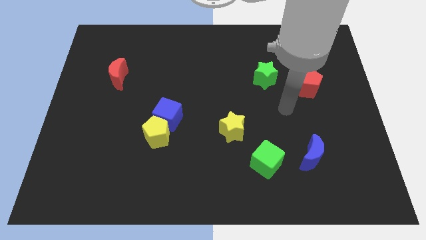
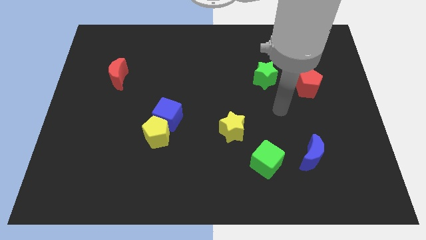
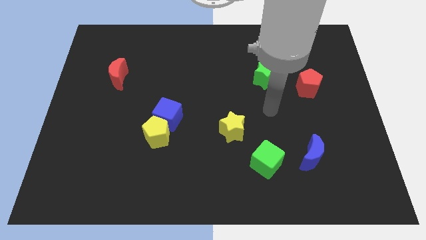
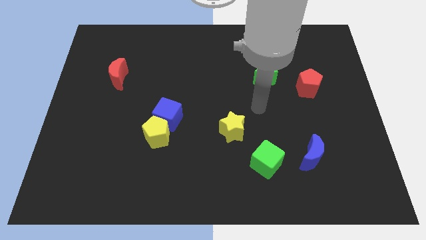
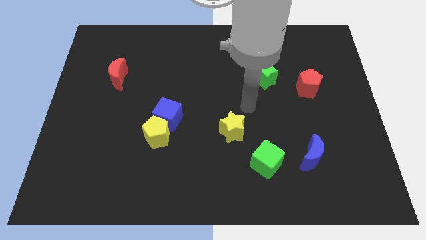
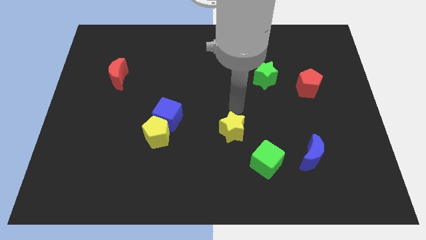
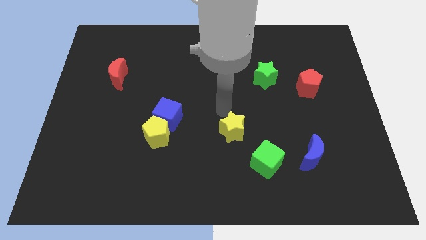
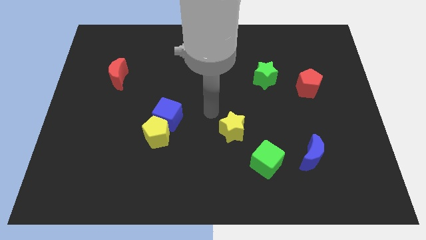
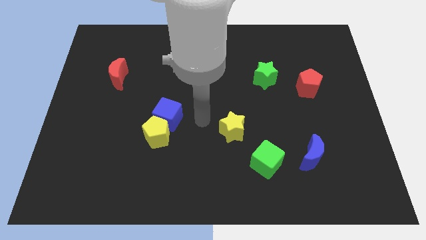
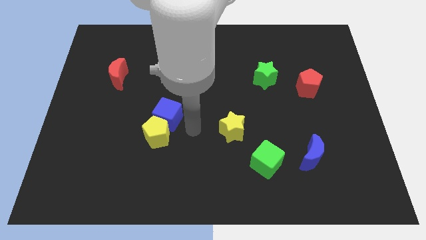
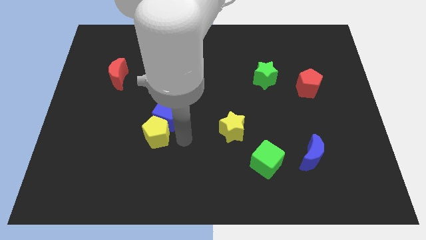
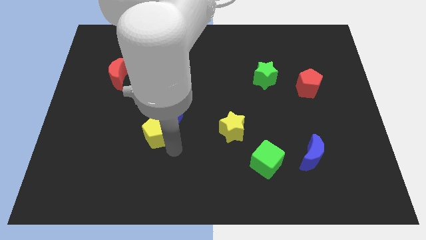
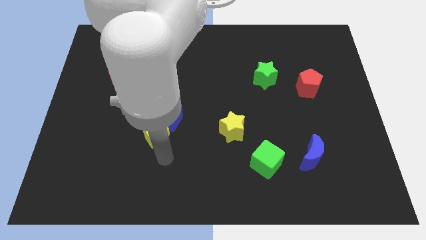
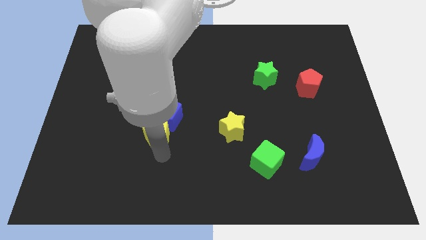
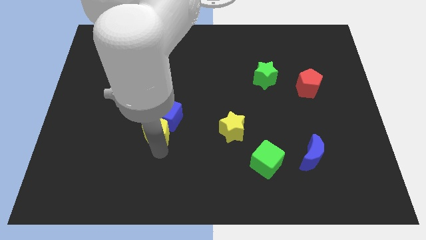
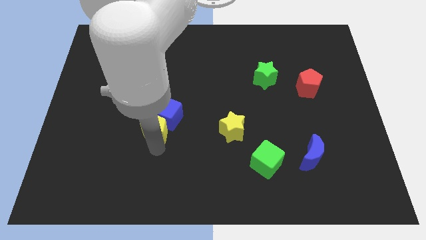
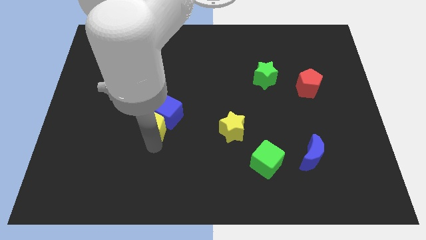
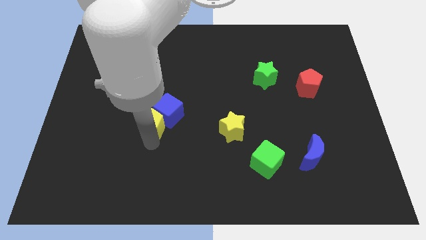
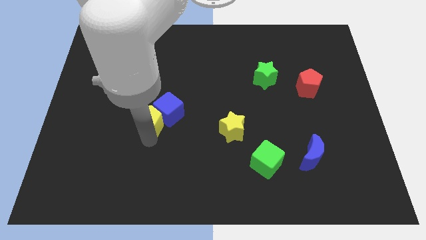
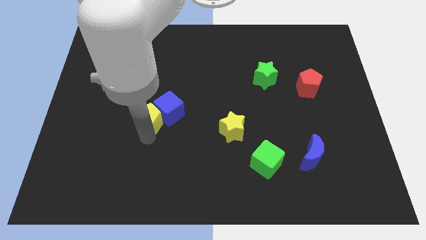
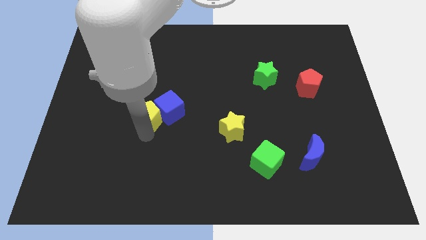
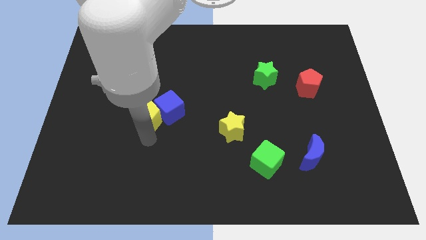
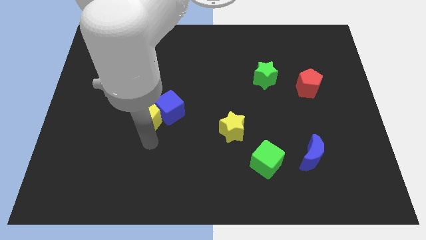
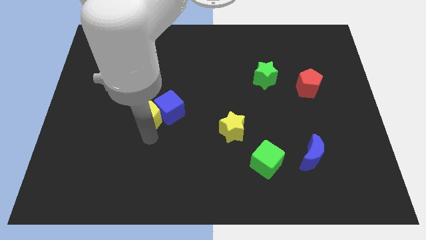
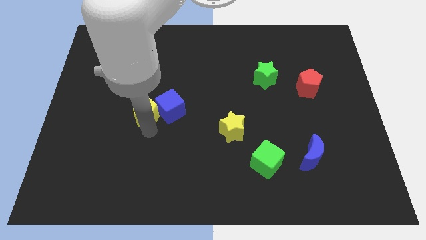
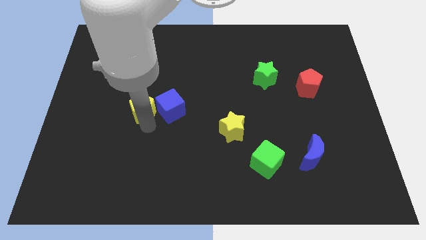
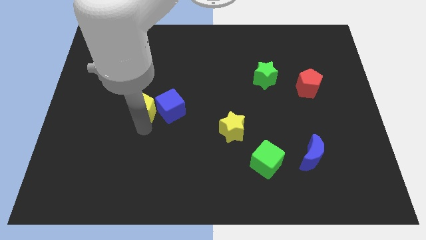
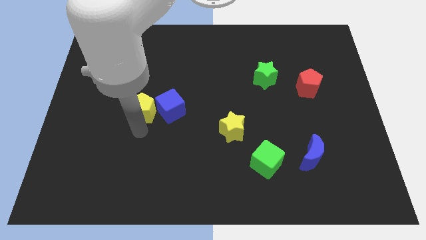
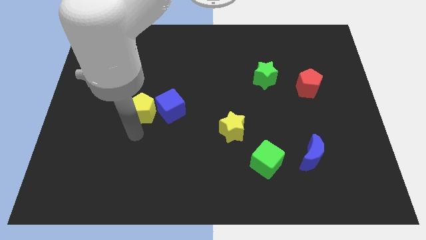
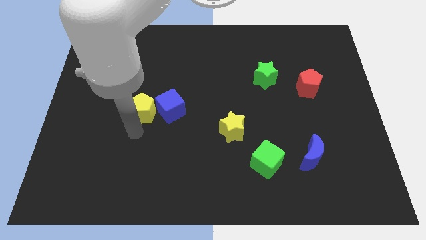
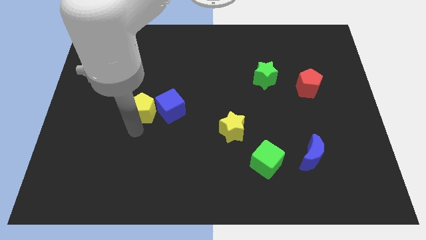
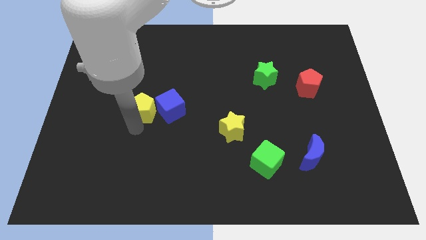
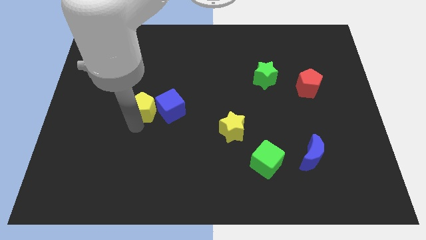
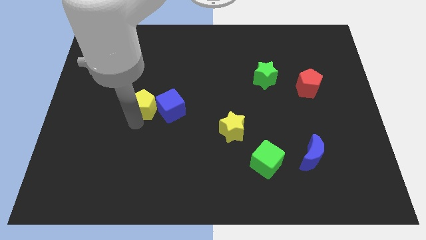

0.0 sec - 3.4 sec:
push the yellow pentagon a little up

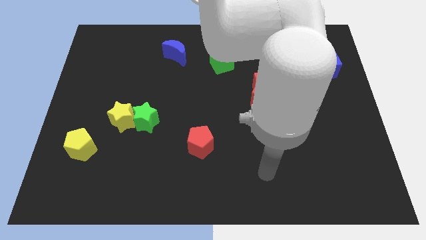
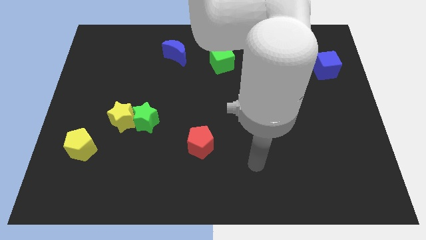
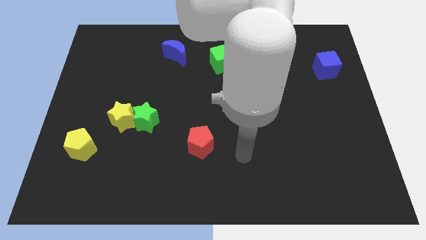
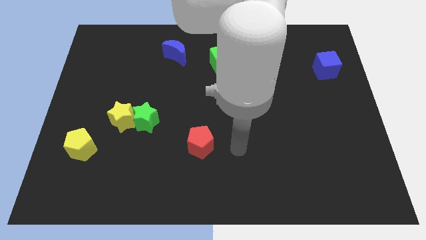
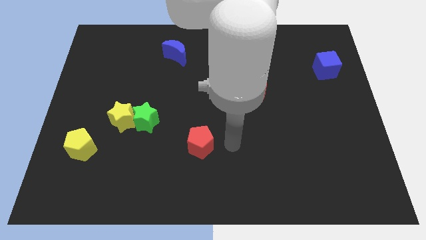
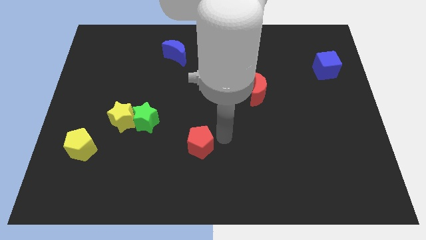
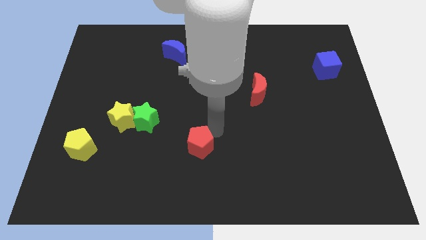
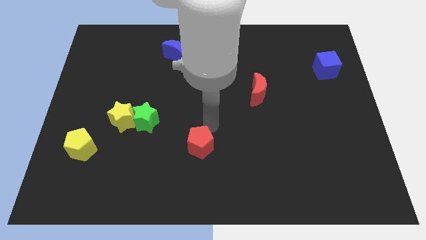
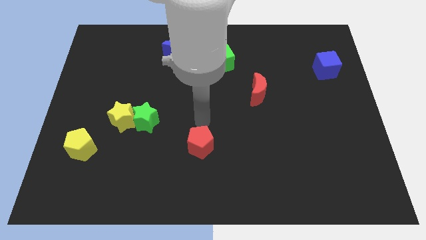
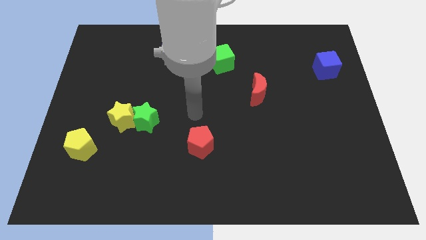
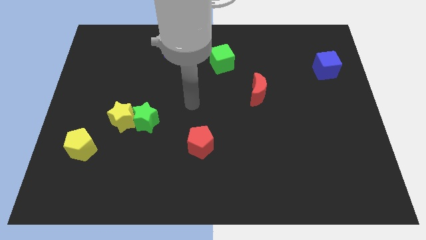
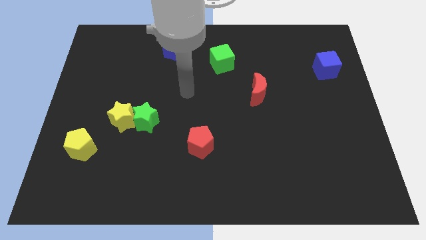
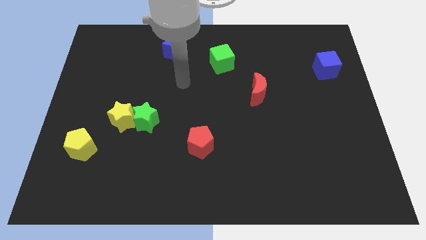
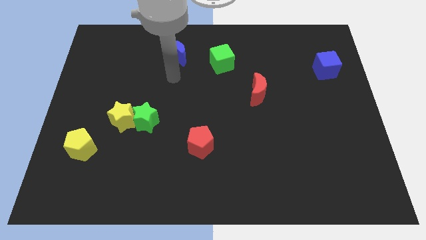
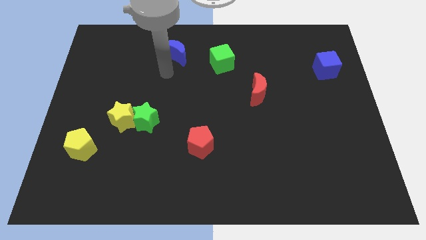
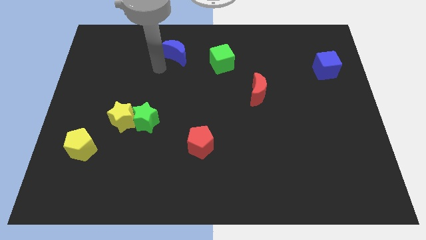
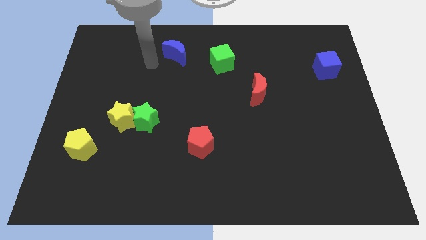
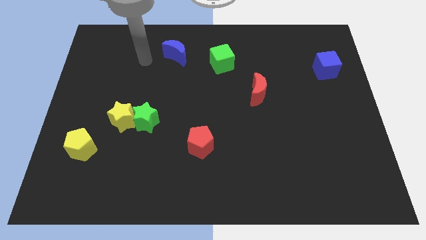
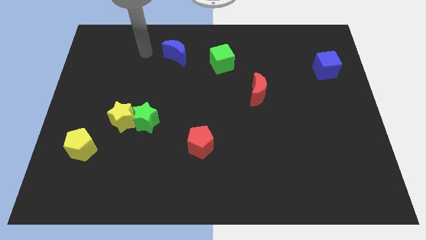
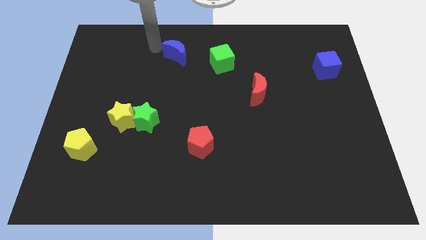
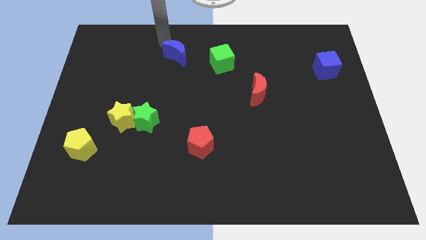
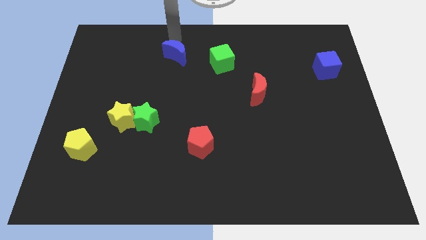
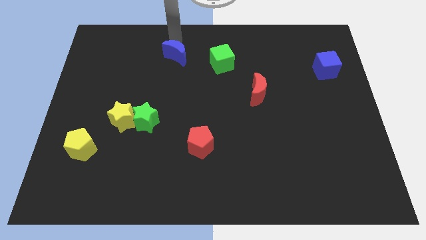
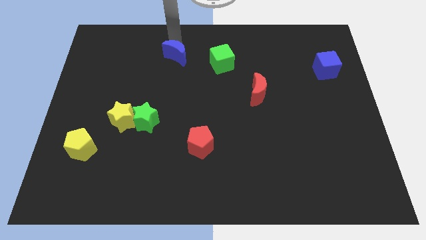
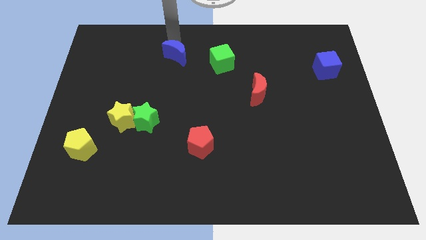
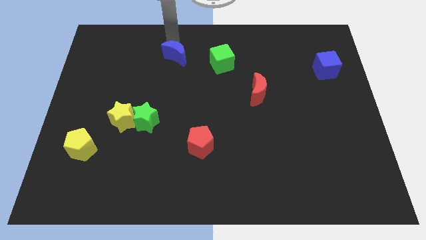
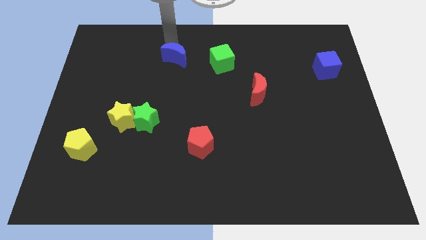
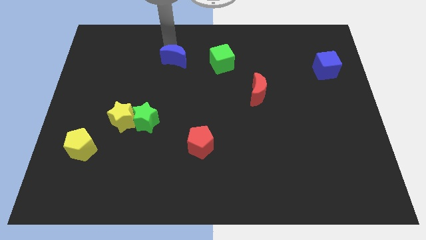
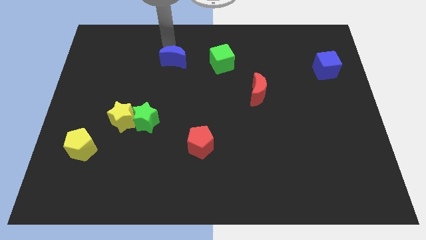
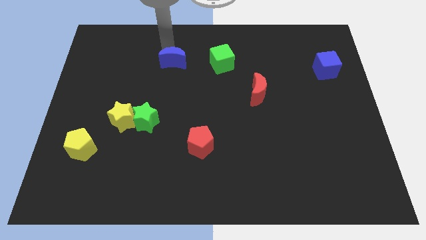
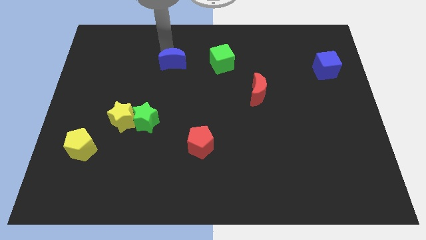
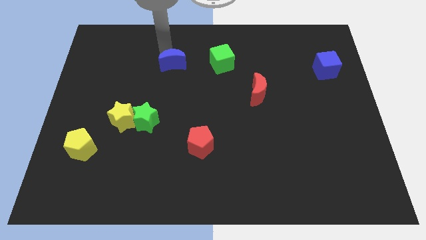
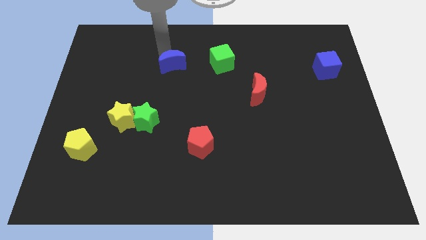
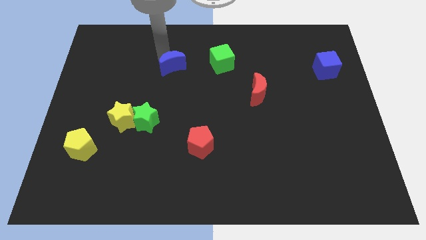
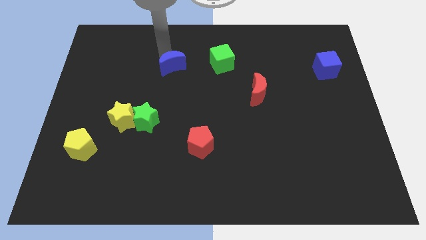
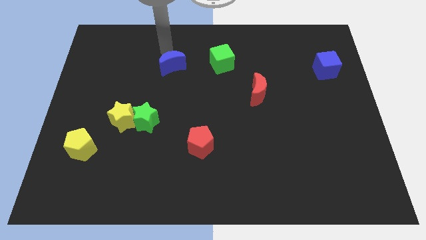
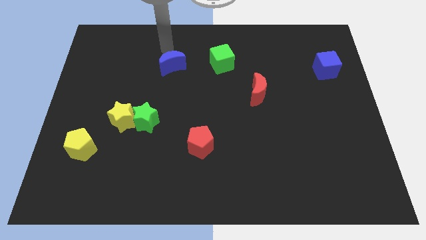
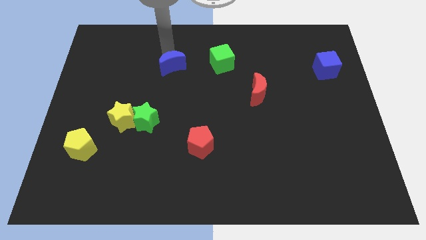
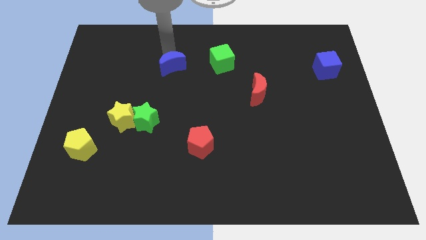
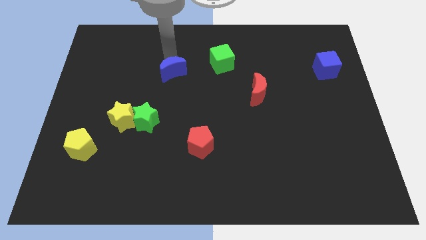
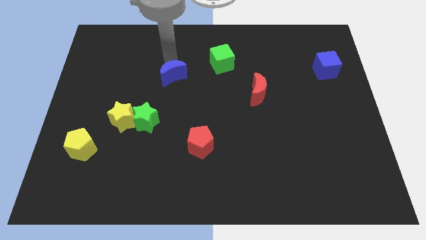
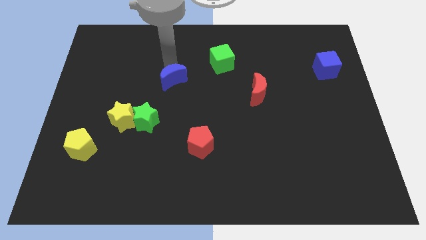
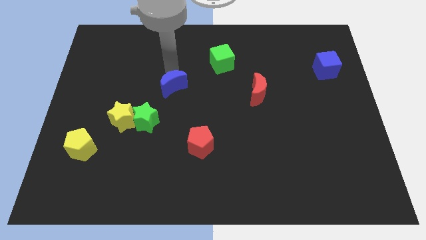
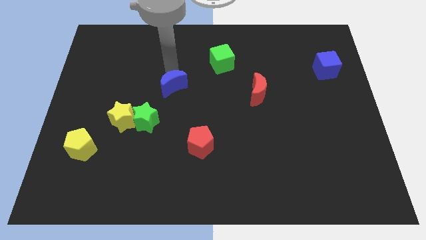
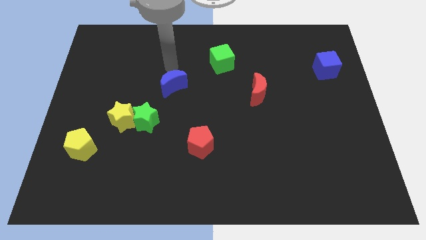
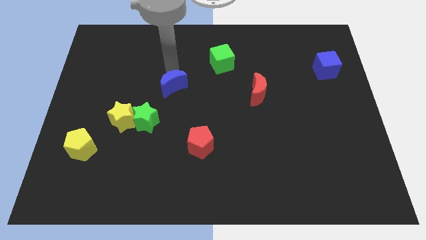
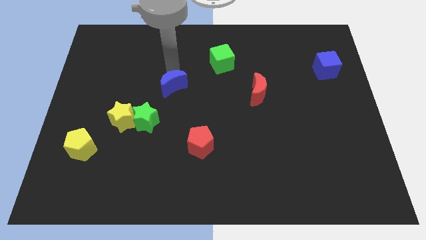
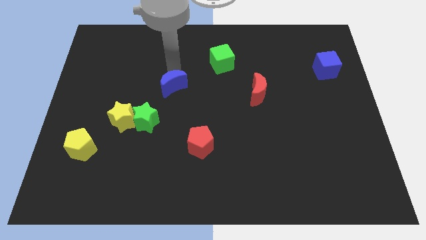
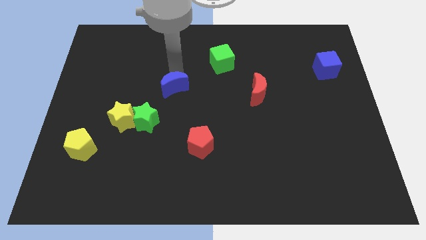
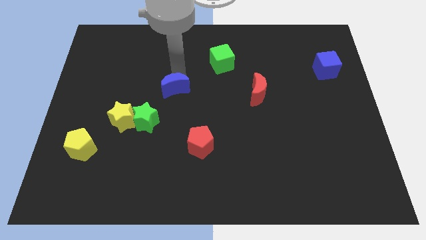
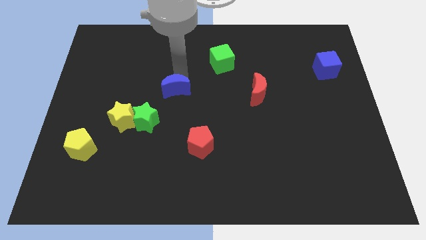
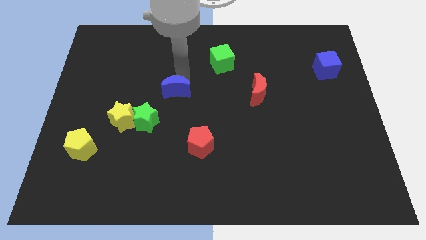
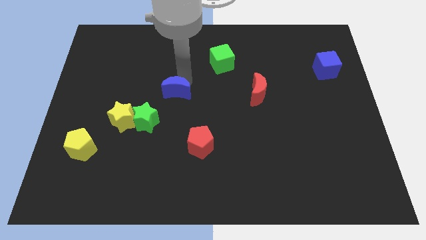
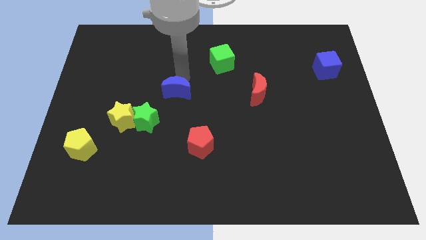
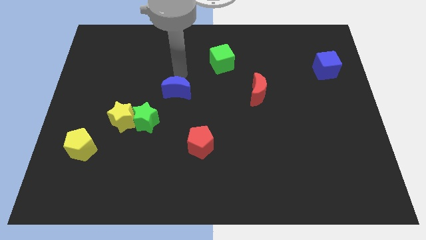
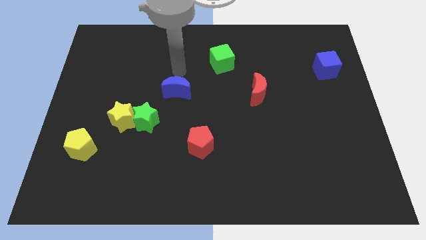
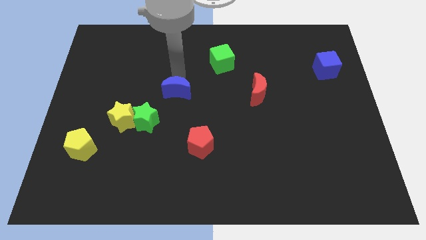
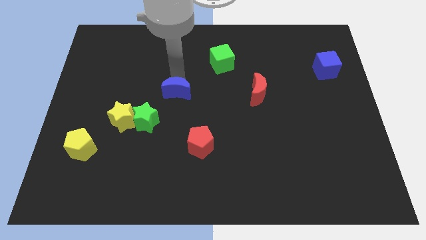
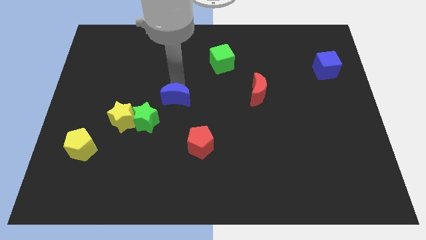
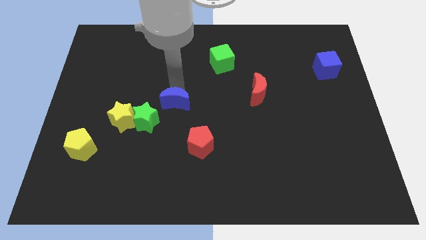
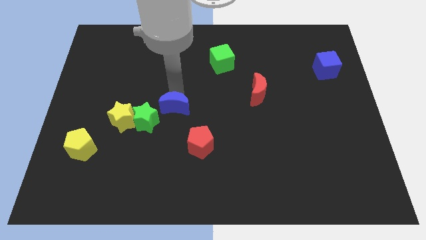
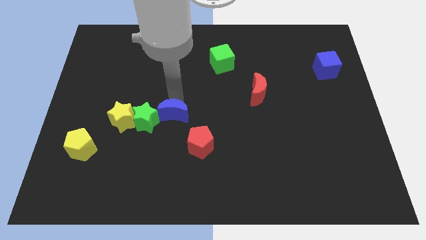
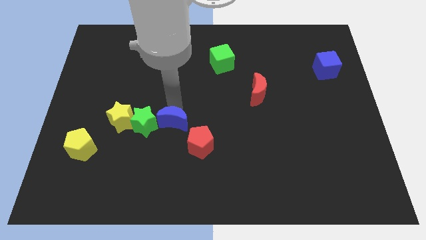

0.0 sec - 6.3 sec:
push the blue moon downwards
